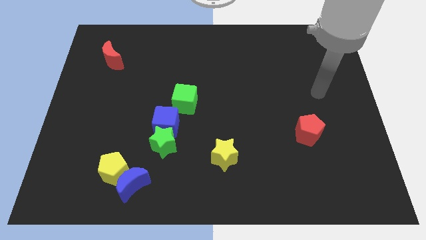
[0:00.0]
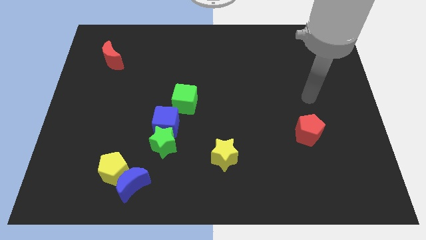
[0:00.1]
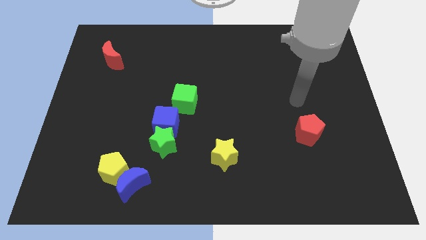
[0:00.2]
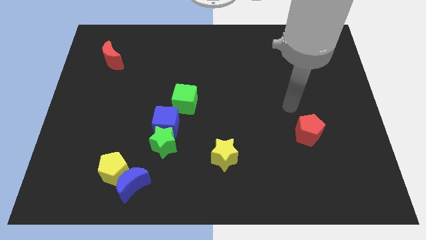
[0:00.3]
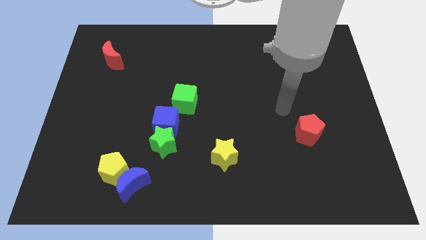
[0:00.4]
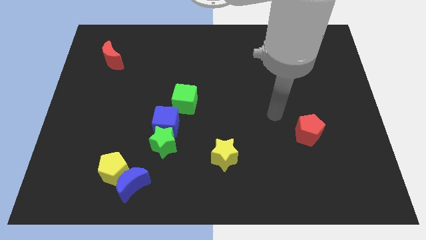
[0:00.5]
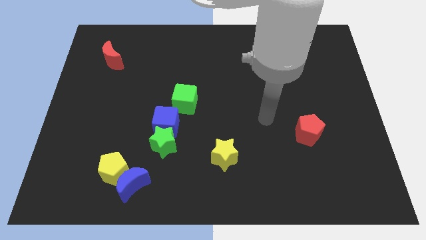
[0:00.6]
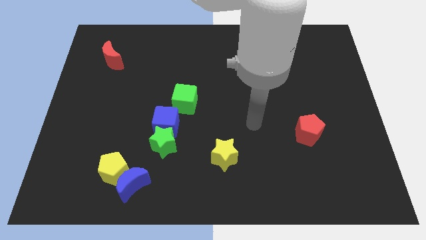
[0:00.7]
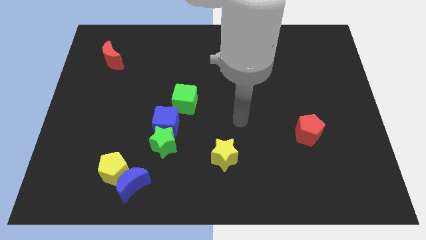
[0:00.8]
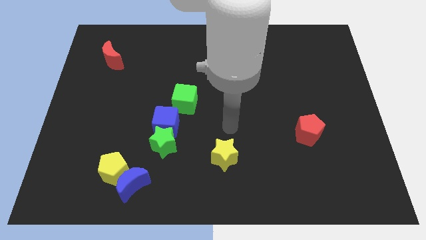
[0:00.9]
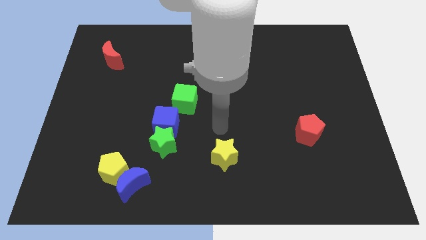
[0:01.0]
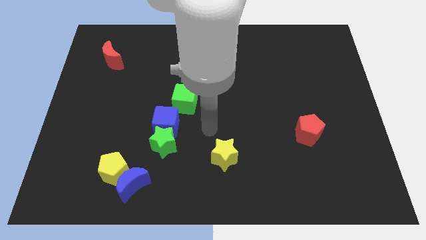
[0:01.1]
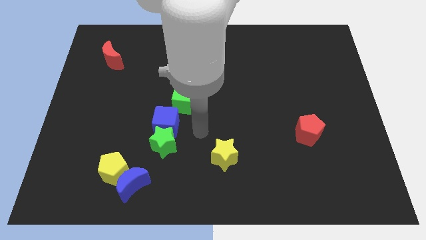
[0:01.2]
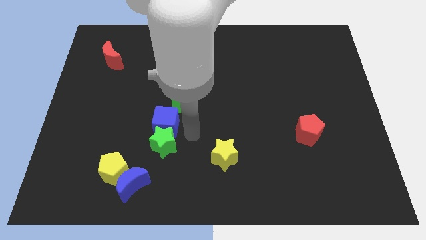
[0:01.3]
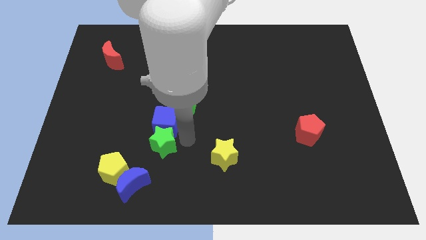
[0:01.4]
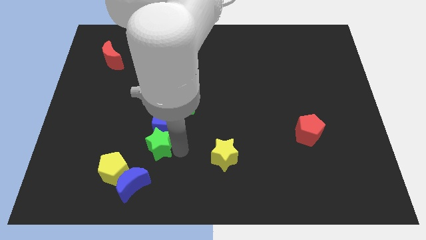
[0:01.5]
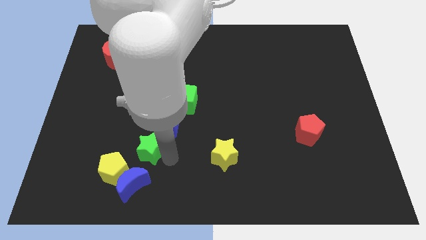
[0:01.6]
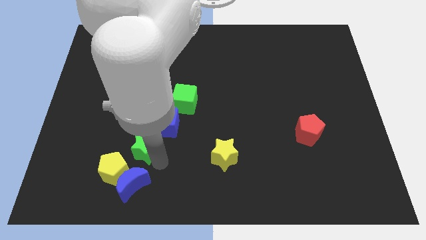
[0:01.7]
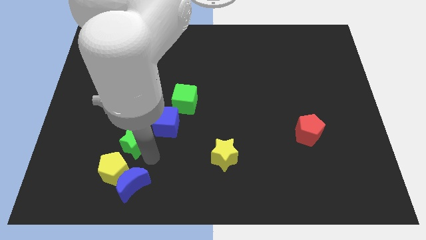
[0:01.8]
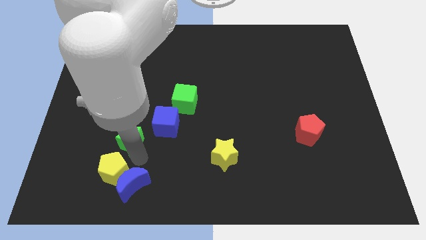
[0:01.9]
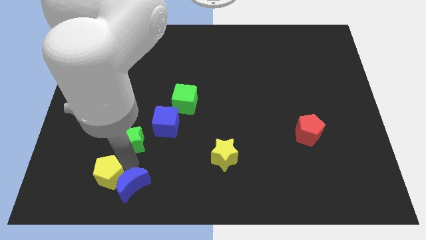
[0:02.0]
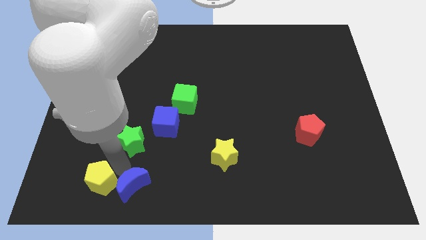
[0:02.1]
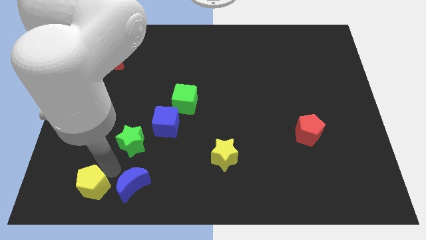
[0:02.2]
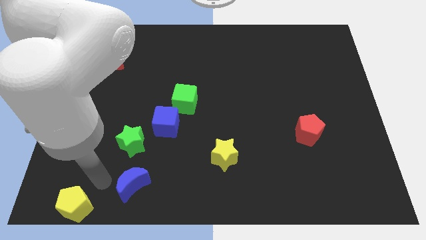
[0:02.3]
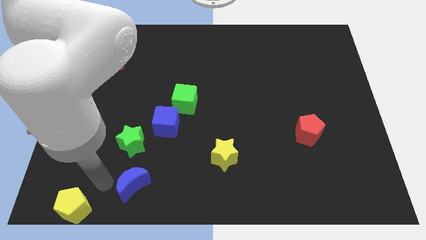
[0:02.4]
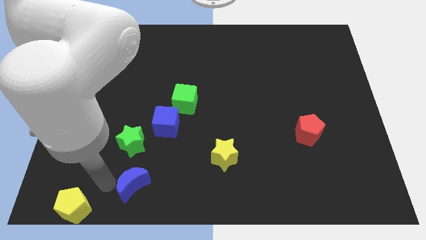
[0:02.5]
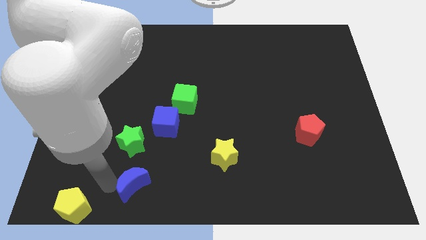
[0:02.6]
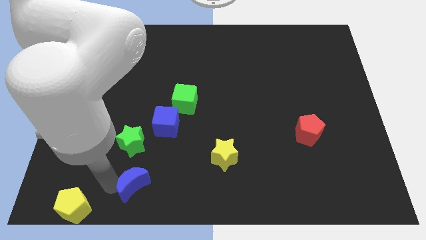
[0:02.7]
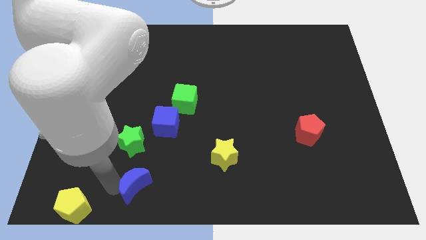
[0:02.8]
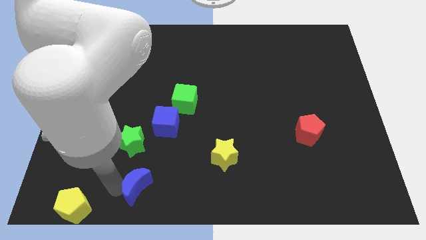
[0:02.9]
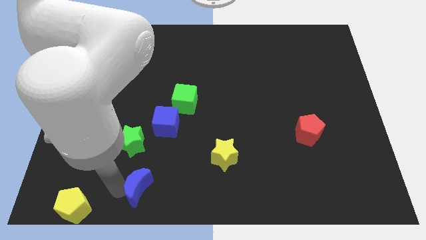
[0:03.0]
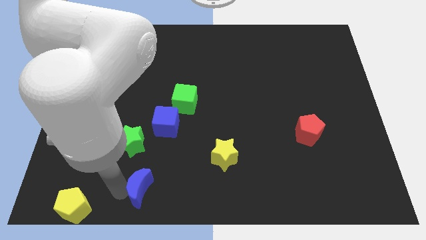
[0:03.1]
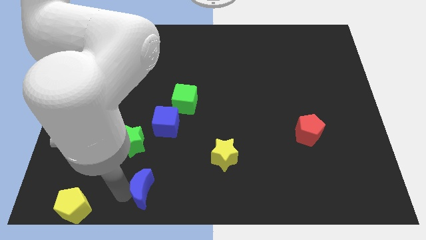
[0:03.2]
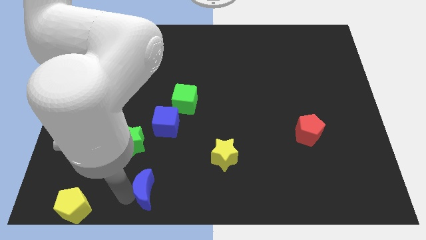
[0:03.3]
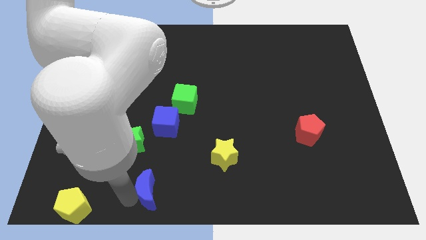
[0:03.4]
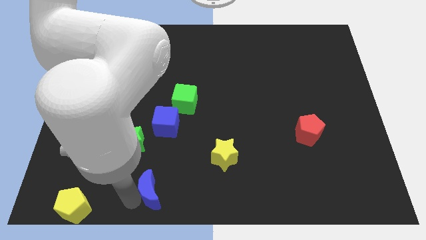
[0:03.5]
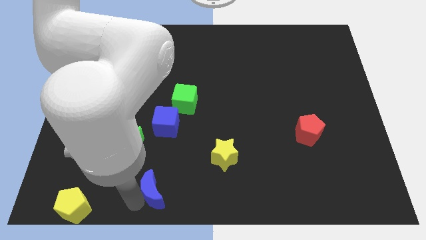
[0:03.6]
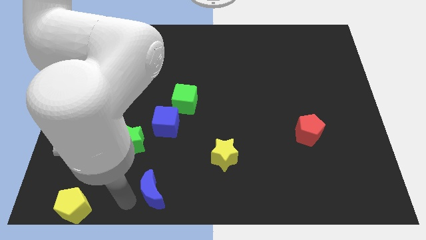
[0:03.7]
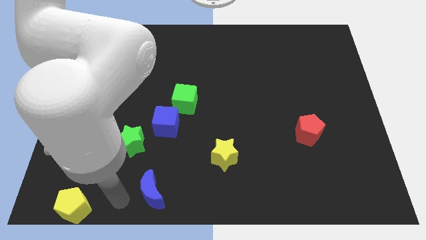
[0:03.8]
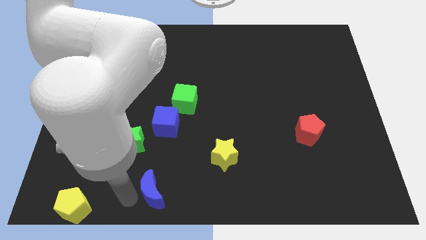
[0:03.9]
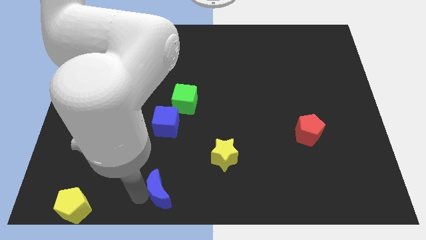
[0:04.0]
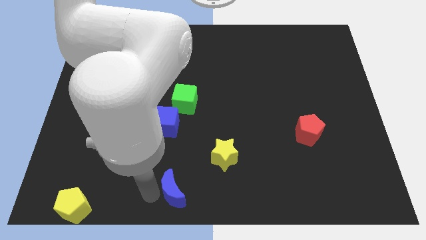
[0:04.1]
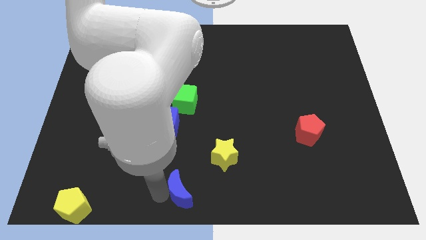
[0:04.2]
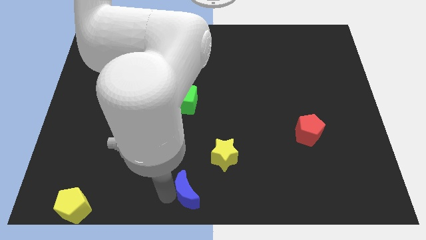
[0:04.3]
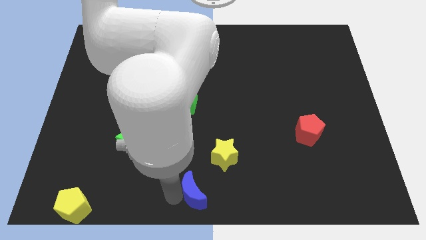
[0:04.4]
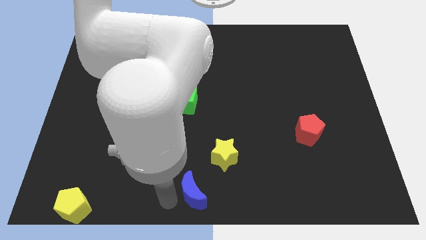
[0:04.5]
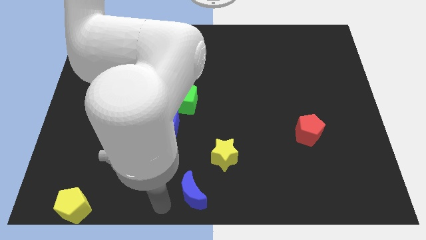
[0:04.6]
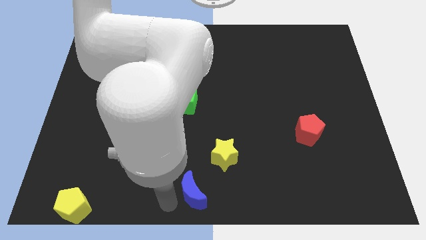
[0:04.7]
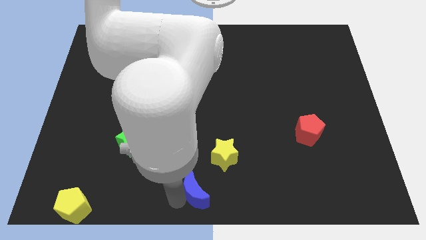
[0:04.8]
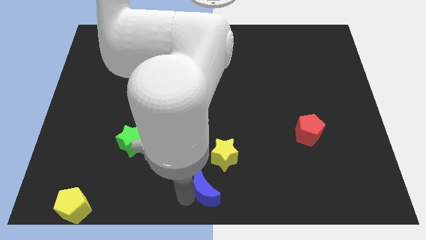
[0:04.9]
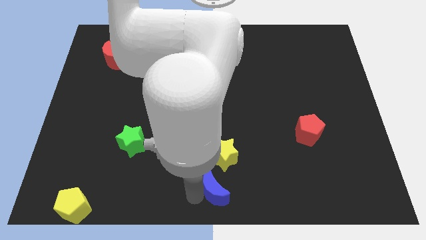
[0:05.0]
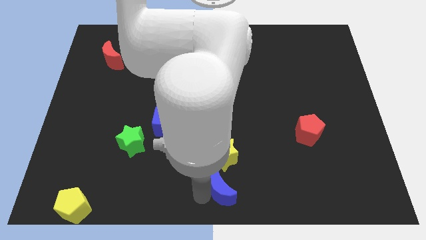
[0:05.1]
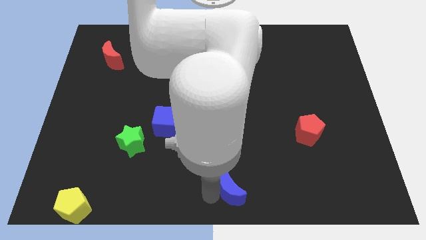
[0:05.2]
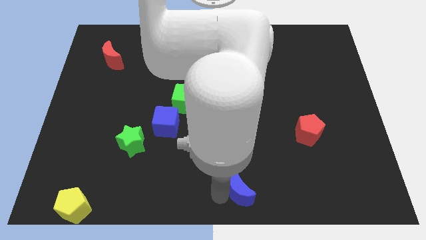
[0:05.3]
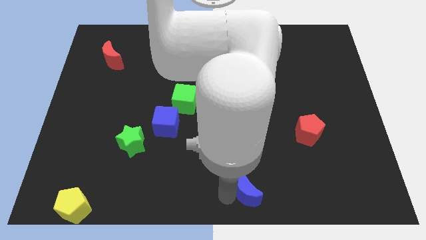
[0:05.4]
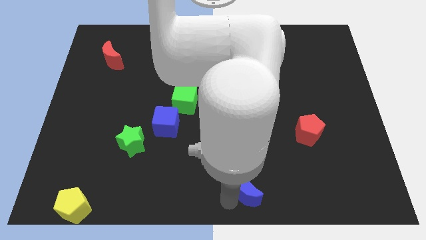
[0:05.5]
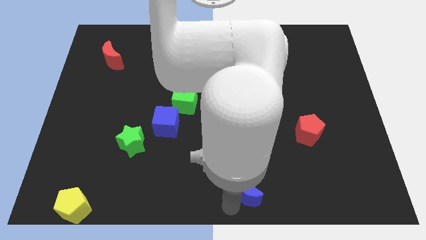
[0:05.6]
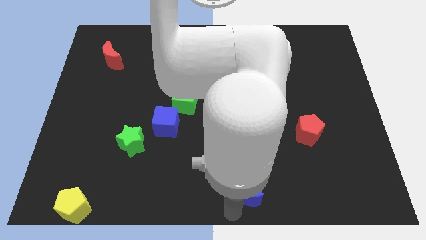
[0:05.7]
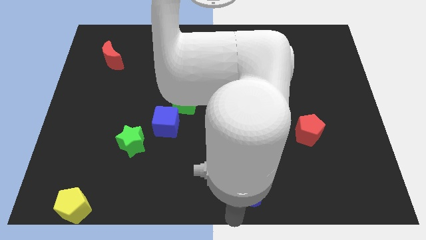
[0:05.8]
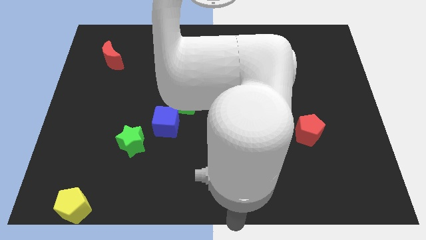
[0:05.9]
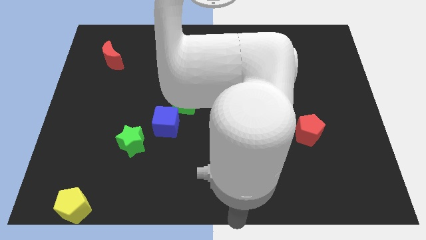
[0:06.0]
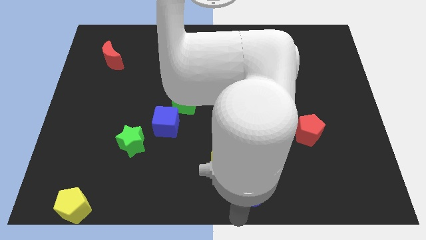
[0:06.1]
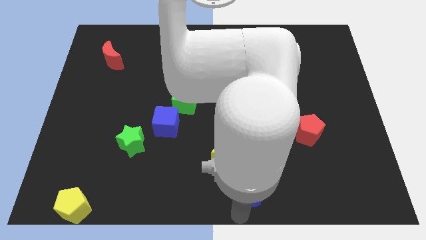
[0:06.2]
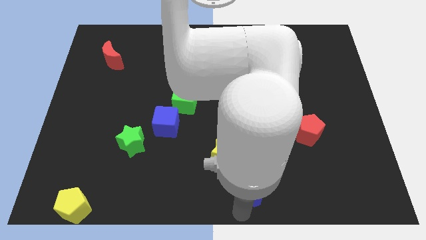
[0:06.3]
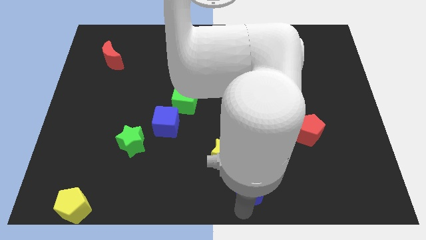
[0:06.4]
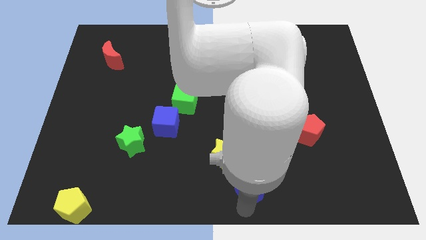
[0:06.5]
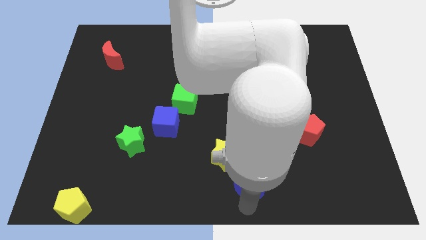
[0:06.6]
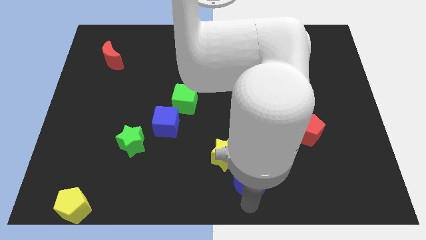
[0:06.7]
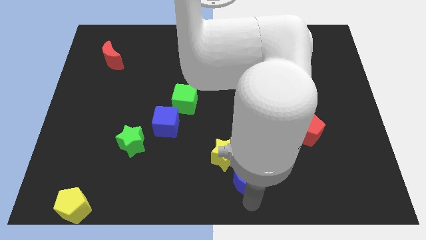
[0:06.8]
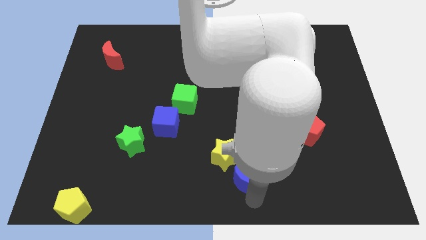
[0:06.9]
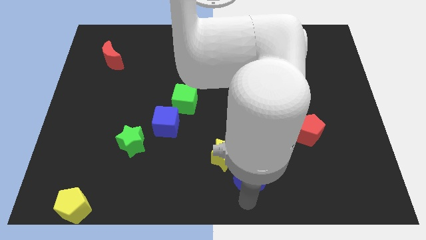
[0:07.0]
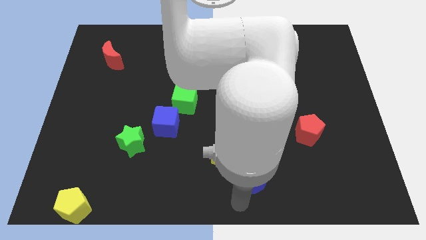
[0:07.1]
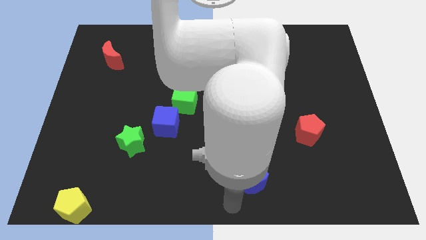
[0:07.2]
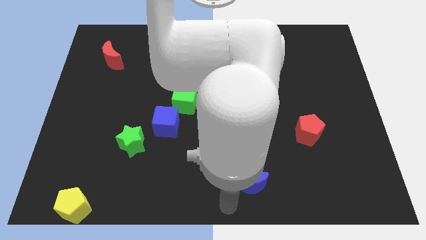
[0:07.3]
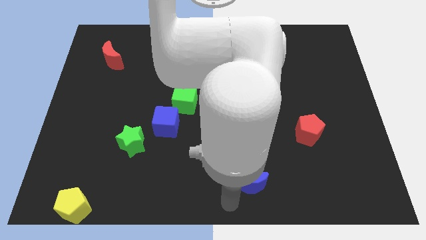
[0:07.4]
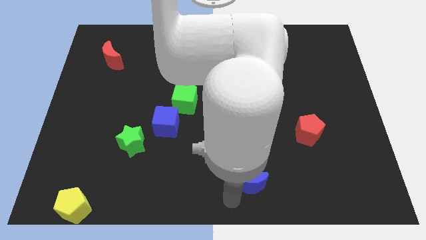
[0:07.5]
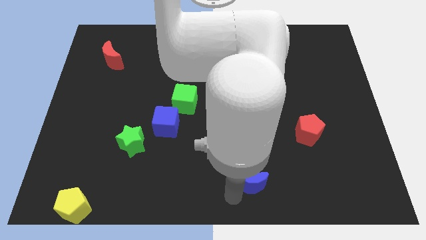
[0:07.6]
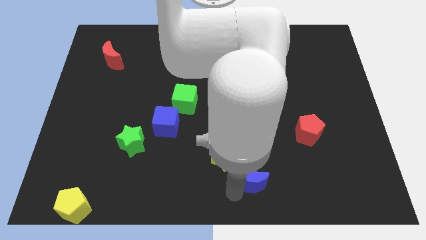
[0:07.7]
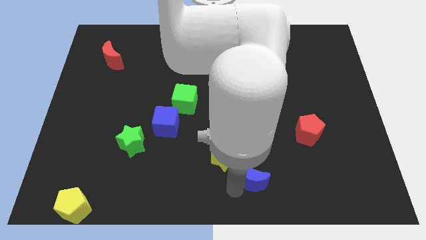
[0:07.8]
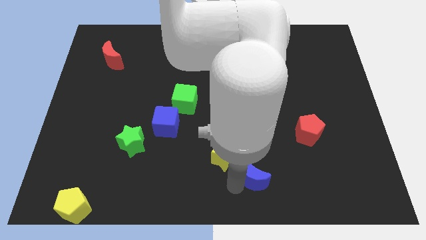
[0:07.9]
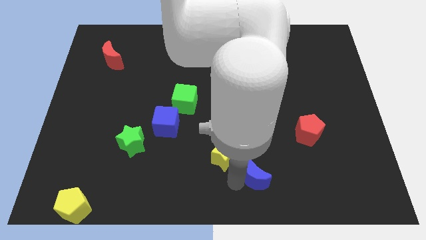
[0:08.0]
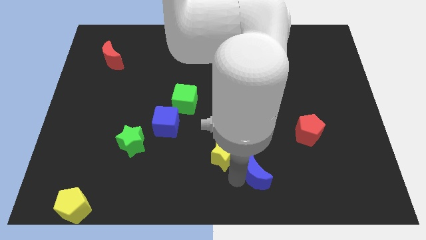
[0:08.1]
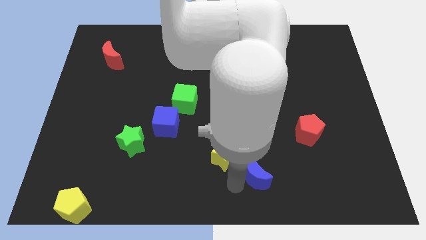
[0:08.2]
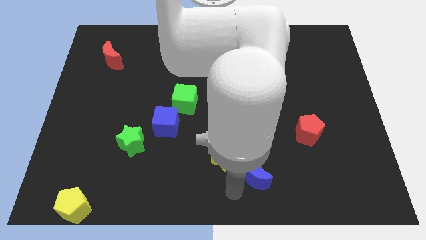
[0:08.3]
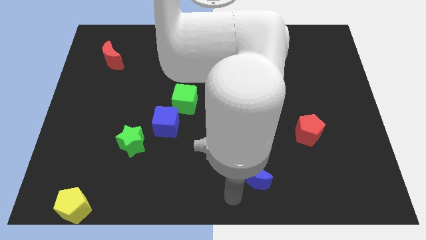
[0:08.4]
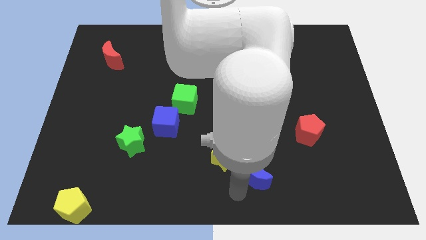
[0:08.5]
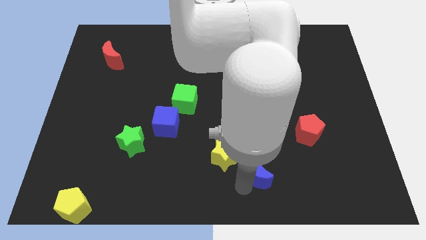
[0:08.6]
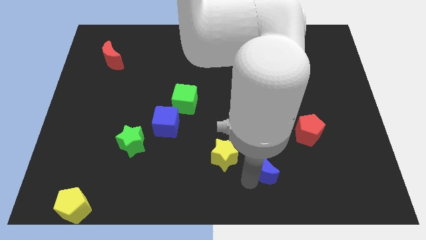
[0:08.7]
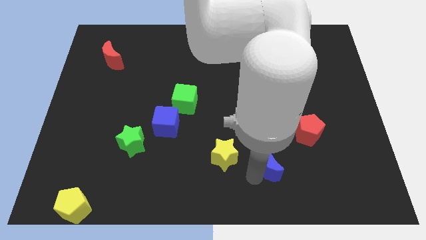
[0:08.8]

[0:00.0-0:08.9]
push the blue moon to the bottom left of the red pentagon
